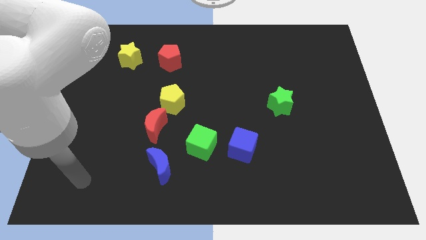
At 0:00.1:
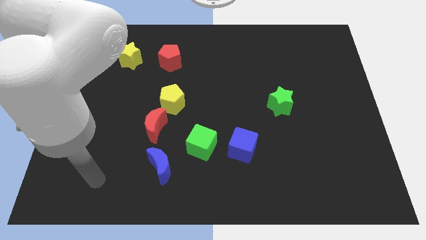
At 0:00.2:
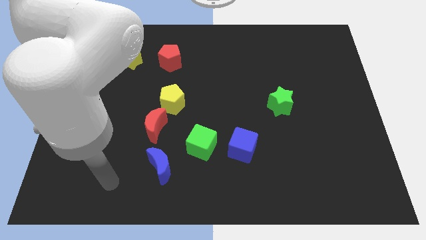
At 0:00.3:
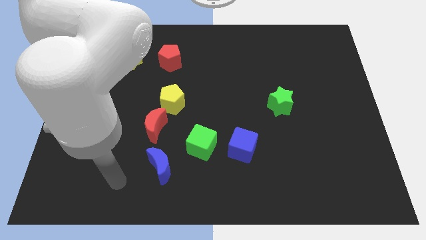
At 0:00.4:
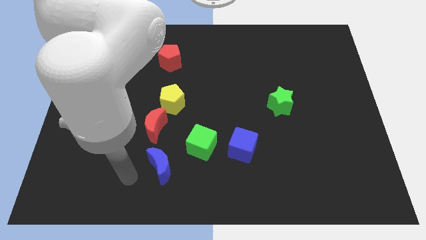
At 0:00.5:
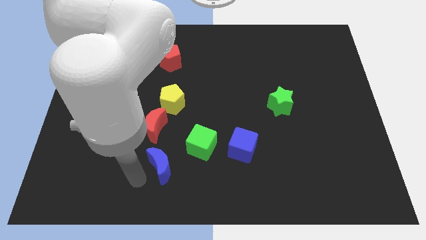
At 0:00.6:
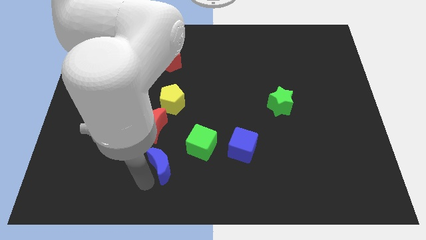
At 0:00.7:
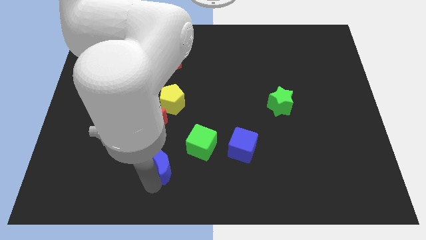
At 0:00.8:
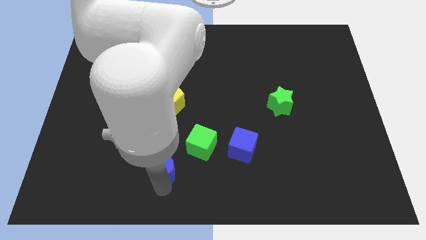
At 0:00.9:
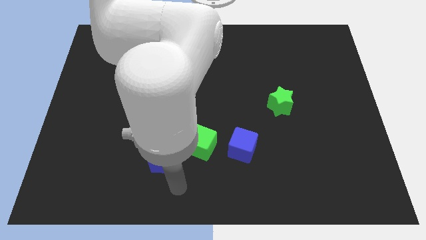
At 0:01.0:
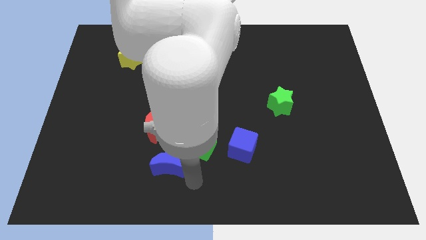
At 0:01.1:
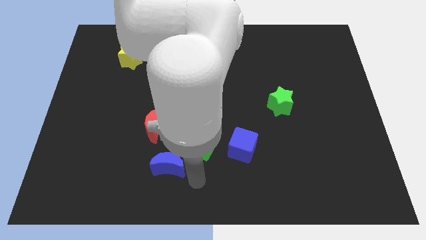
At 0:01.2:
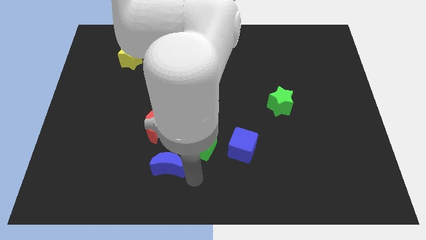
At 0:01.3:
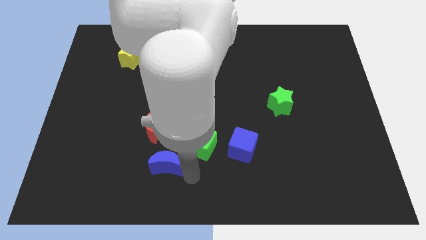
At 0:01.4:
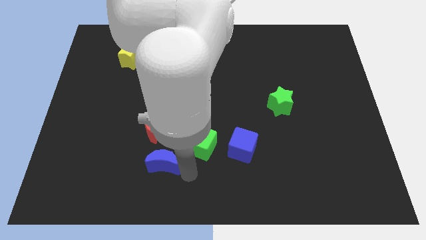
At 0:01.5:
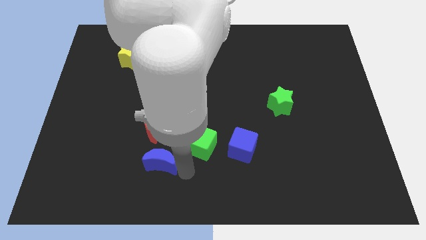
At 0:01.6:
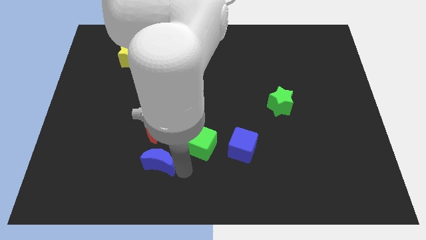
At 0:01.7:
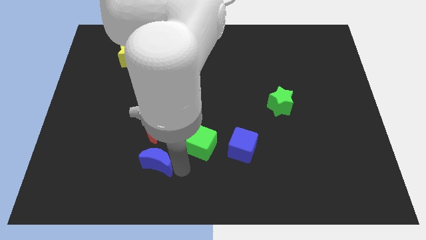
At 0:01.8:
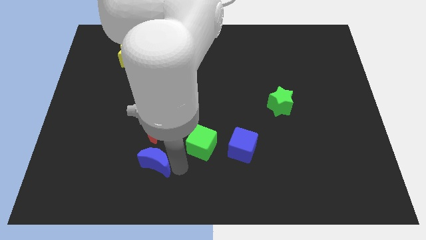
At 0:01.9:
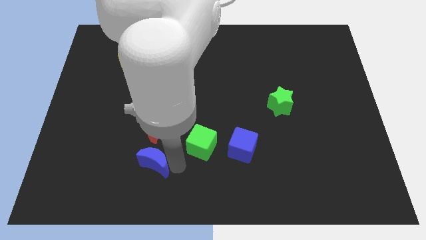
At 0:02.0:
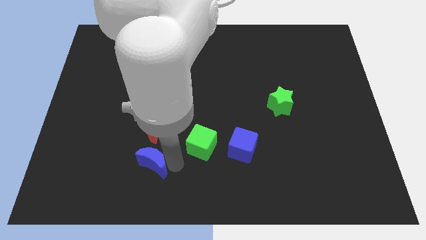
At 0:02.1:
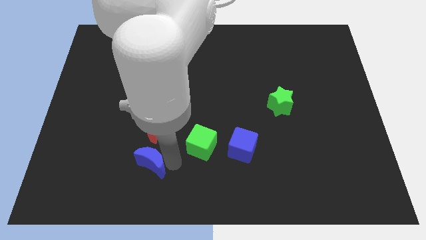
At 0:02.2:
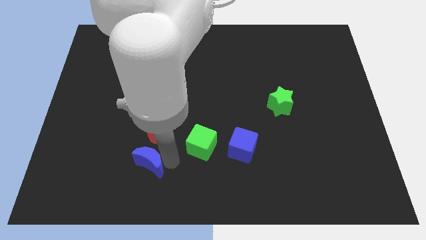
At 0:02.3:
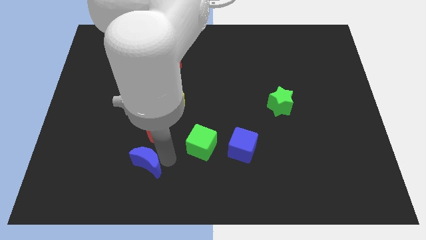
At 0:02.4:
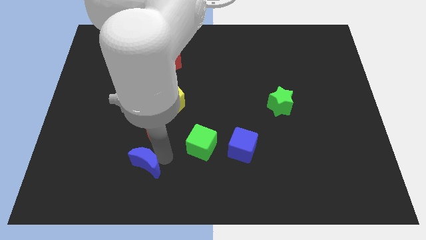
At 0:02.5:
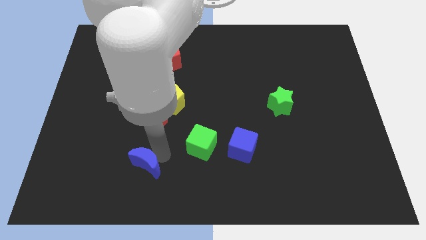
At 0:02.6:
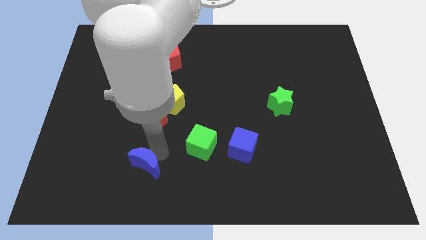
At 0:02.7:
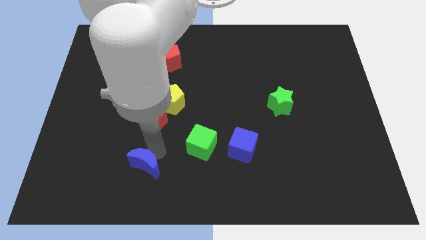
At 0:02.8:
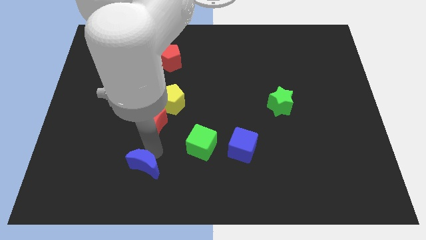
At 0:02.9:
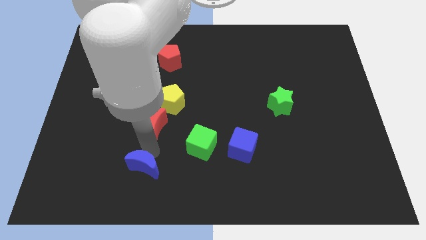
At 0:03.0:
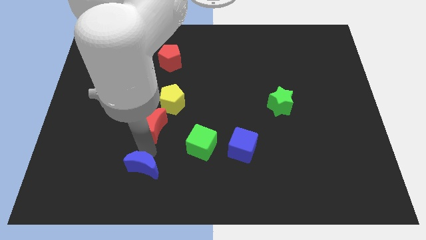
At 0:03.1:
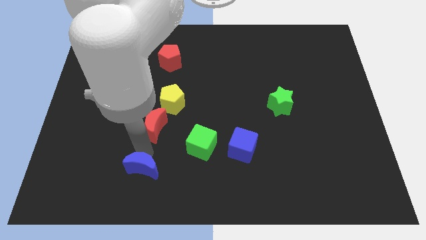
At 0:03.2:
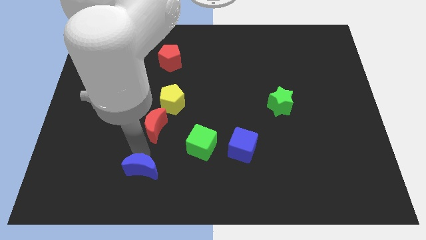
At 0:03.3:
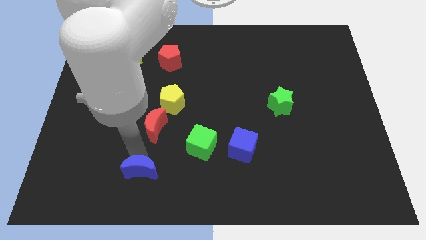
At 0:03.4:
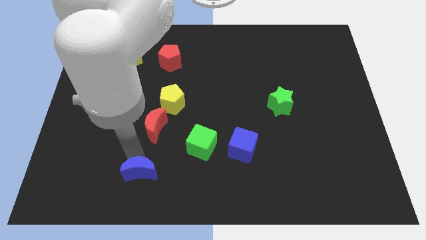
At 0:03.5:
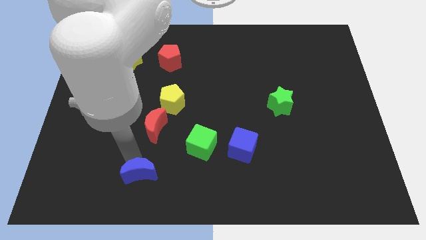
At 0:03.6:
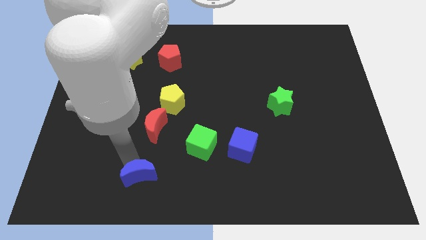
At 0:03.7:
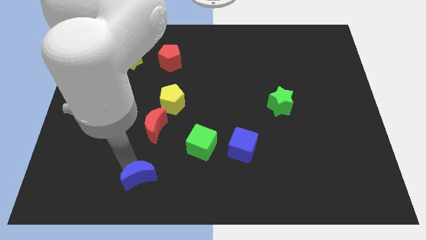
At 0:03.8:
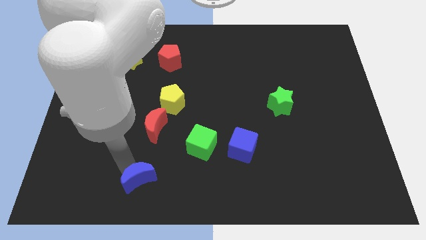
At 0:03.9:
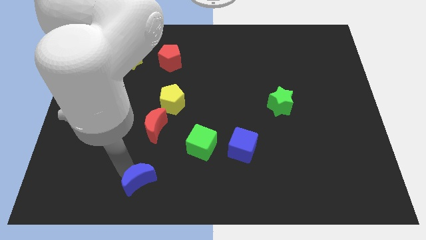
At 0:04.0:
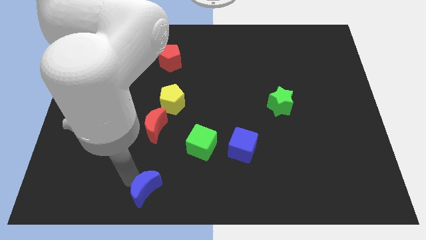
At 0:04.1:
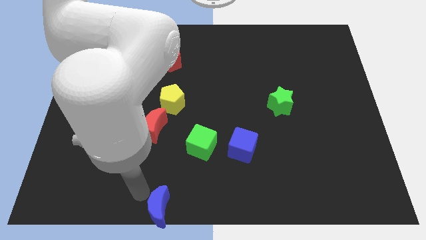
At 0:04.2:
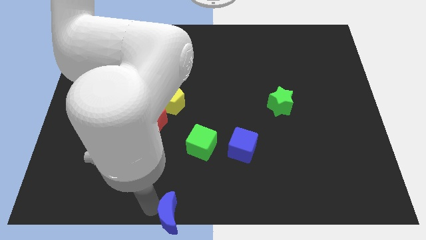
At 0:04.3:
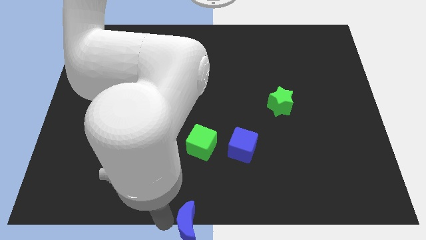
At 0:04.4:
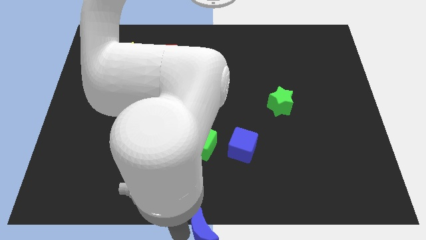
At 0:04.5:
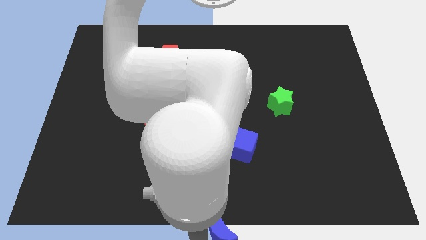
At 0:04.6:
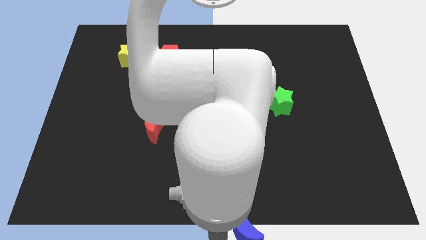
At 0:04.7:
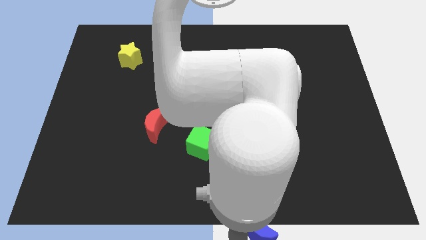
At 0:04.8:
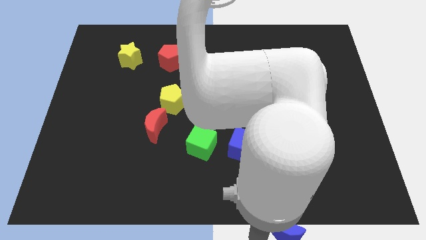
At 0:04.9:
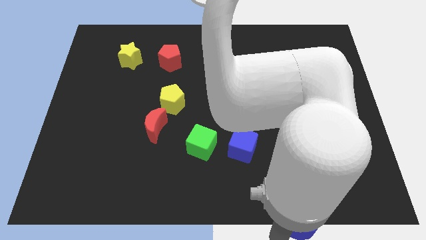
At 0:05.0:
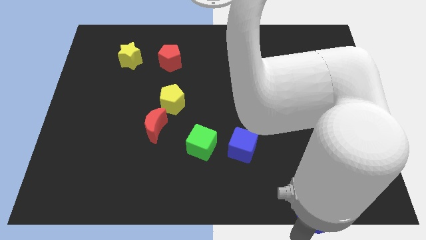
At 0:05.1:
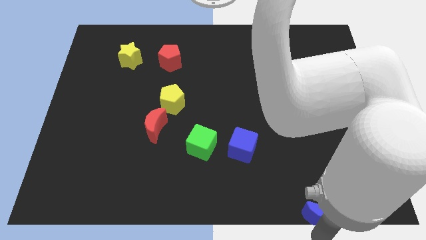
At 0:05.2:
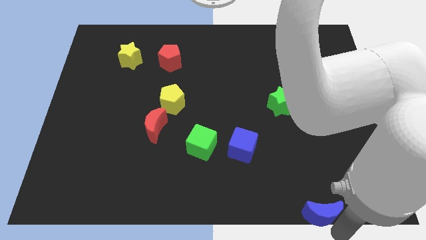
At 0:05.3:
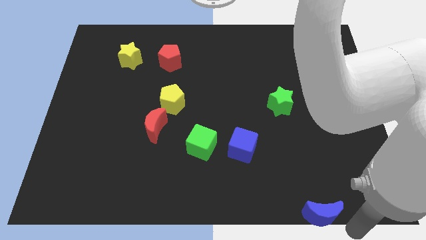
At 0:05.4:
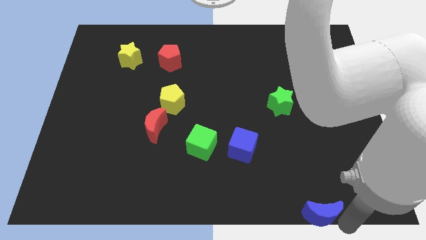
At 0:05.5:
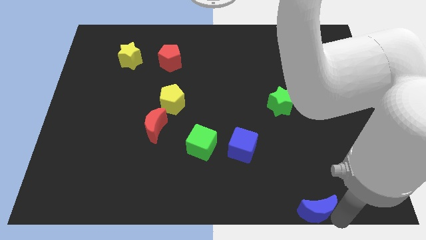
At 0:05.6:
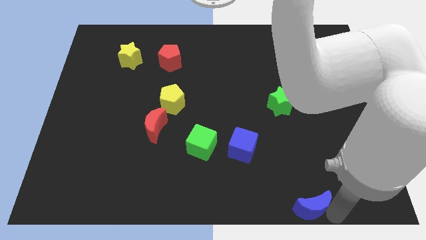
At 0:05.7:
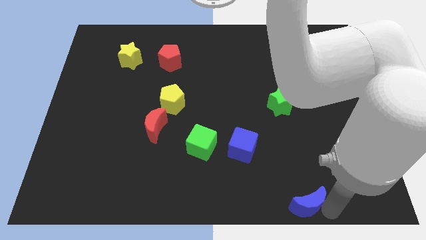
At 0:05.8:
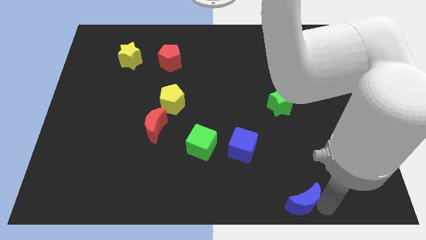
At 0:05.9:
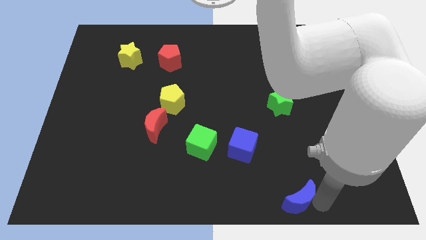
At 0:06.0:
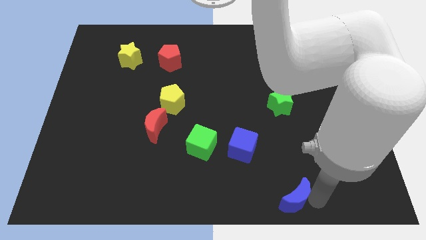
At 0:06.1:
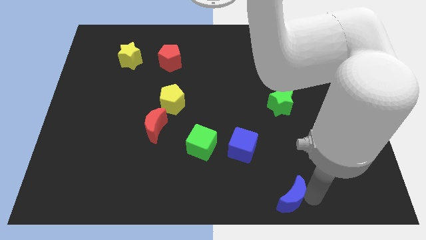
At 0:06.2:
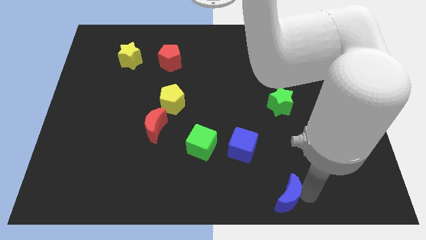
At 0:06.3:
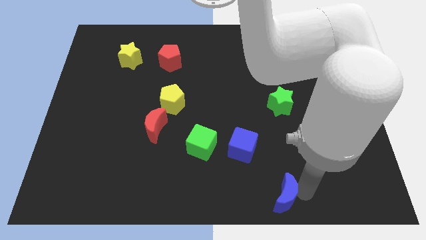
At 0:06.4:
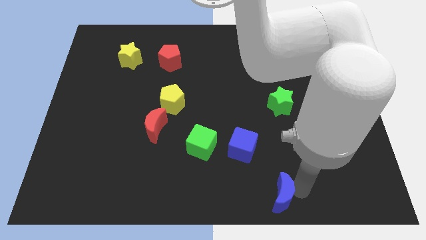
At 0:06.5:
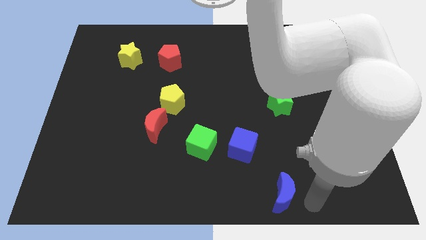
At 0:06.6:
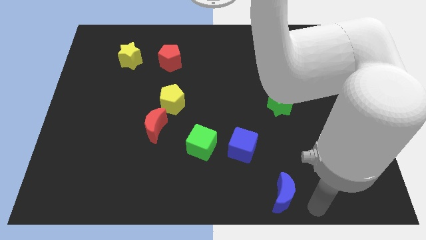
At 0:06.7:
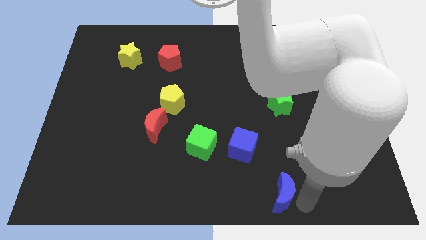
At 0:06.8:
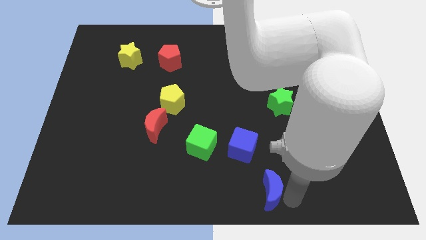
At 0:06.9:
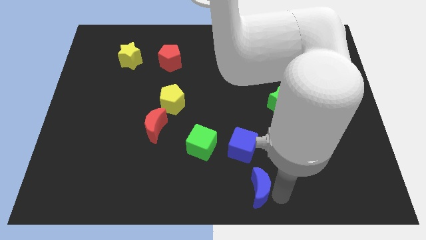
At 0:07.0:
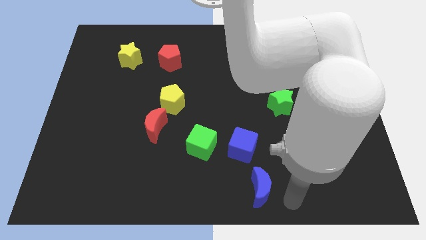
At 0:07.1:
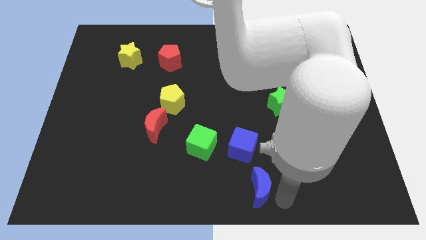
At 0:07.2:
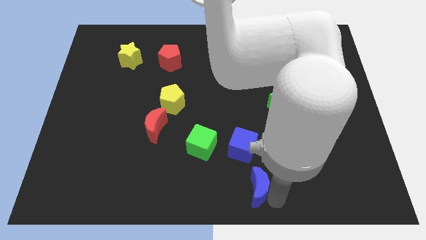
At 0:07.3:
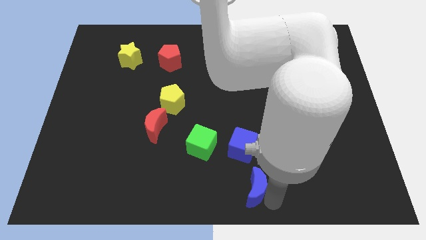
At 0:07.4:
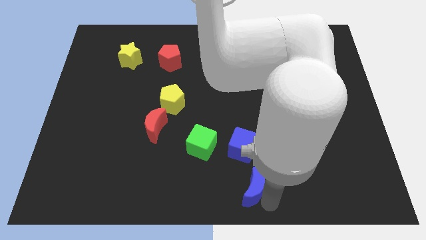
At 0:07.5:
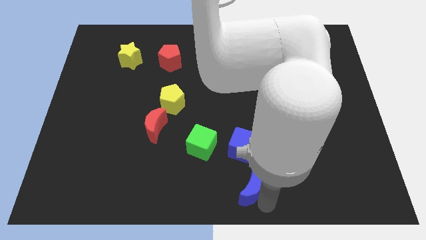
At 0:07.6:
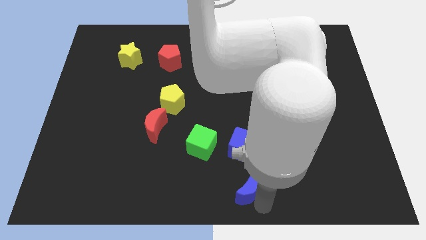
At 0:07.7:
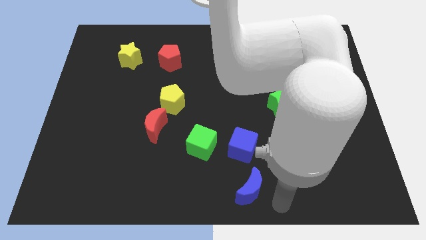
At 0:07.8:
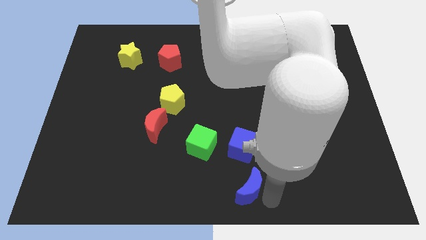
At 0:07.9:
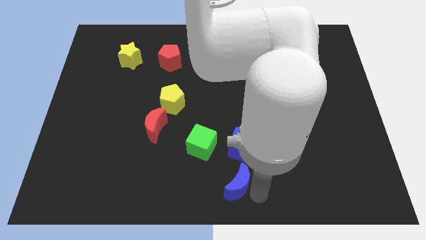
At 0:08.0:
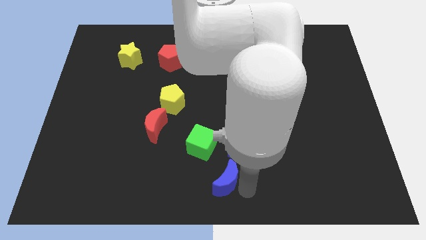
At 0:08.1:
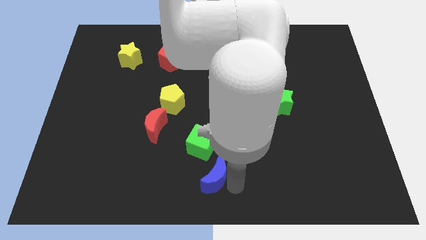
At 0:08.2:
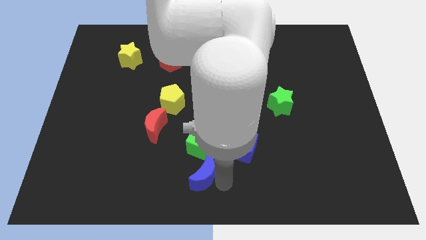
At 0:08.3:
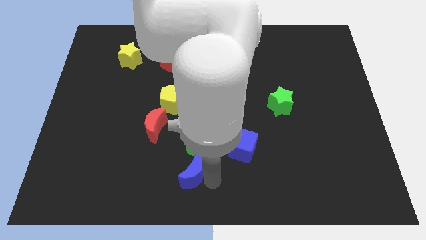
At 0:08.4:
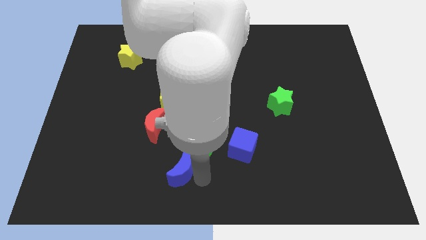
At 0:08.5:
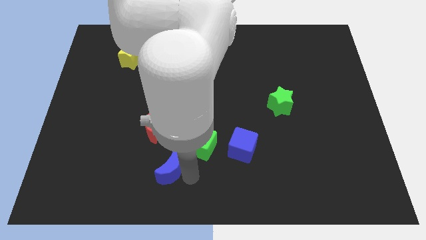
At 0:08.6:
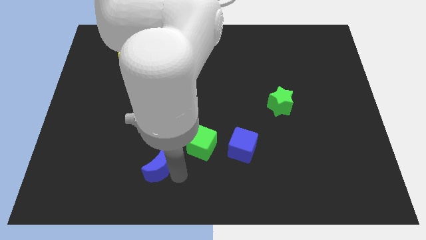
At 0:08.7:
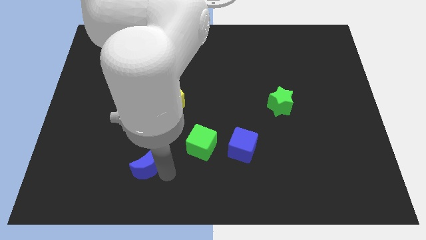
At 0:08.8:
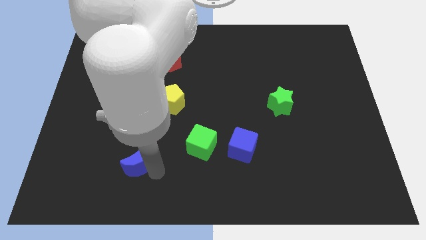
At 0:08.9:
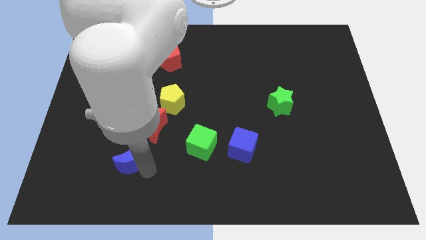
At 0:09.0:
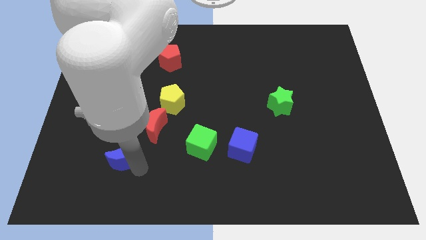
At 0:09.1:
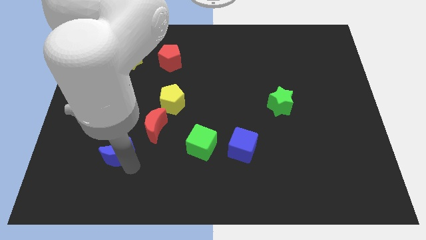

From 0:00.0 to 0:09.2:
slightly move the blue moon diagonally up and to the left
